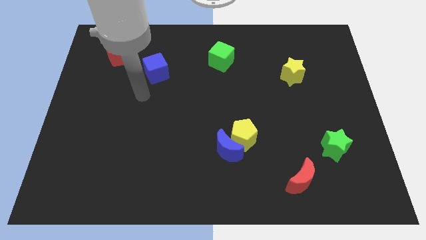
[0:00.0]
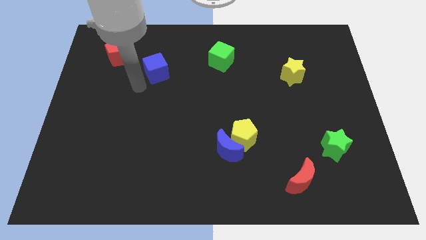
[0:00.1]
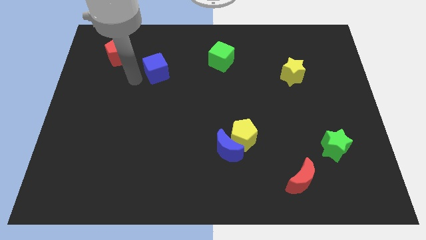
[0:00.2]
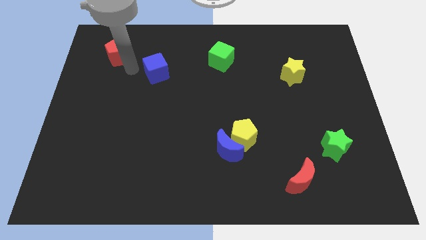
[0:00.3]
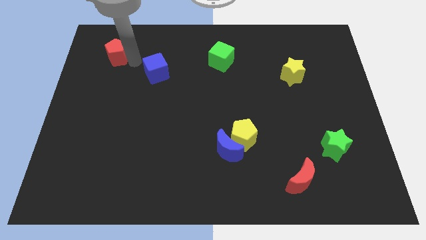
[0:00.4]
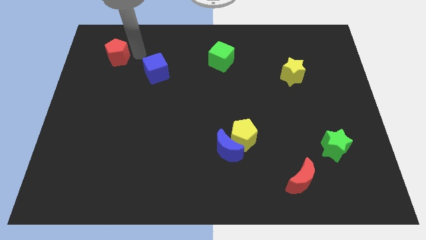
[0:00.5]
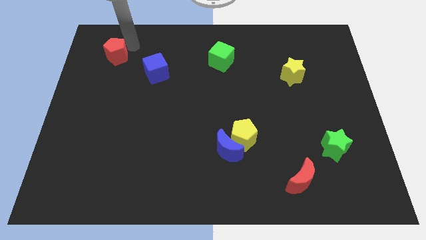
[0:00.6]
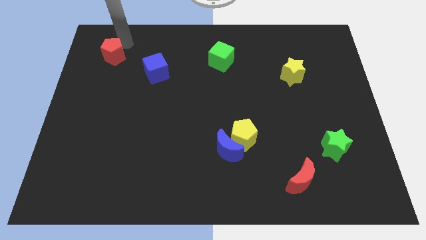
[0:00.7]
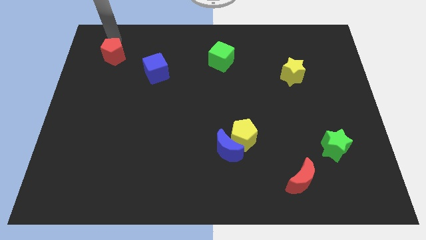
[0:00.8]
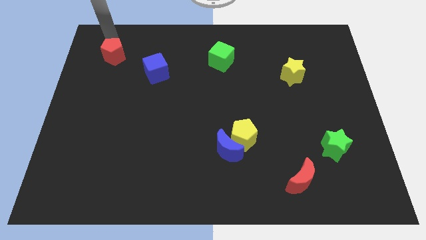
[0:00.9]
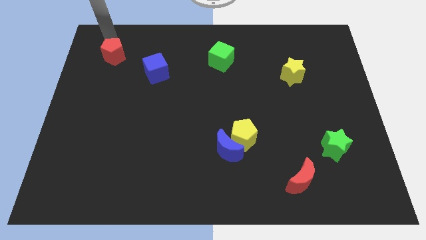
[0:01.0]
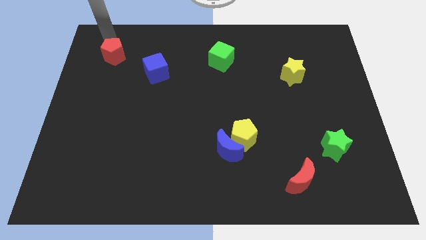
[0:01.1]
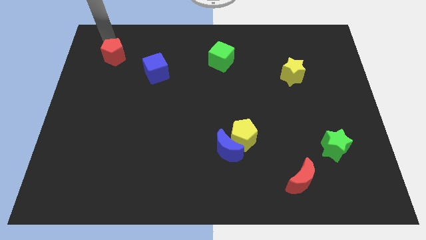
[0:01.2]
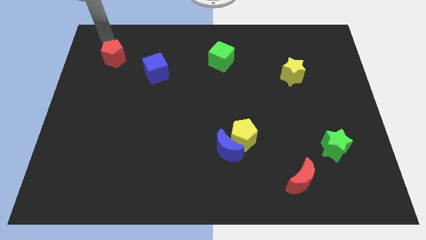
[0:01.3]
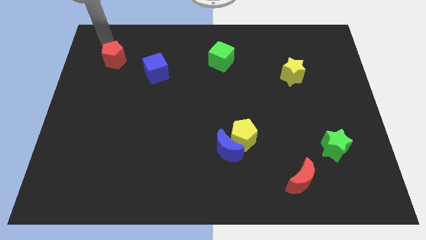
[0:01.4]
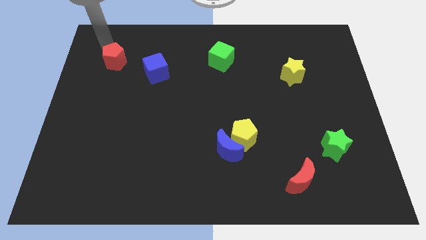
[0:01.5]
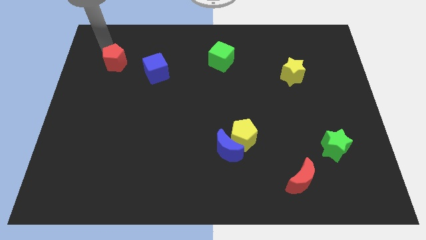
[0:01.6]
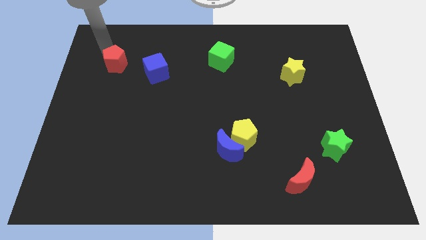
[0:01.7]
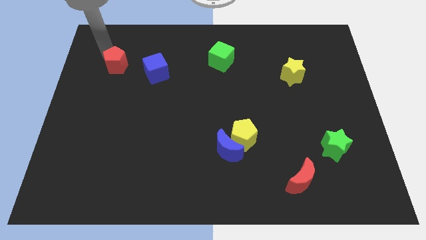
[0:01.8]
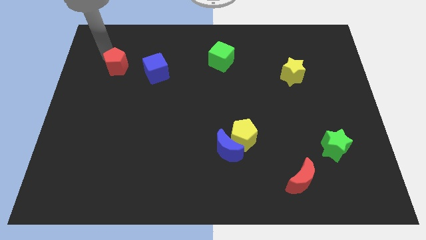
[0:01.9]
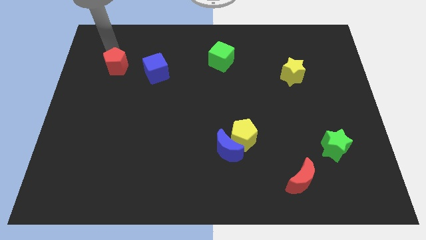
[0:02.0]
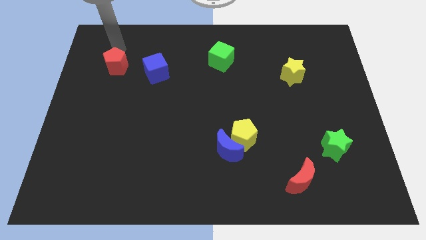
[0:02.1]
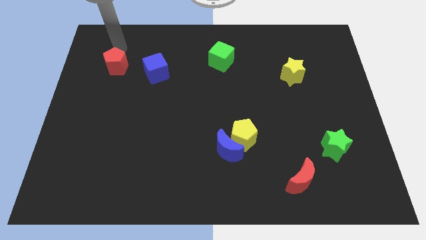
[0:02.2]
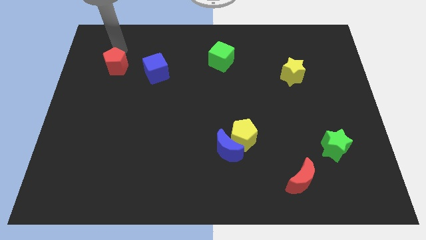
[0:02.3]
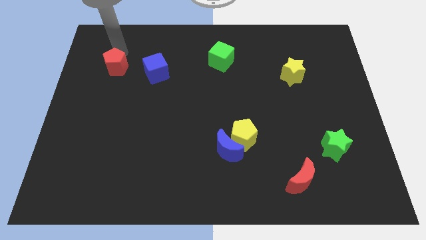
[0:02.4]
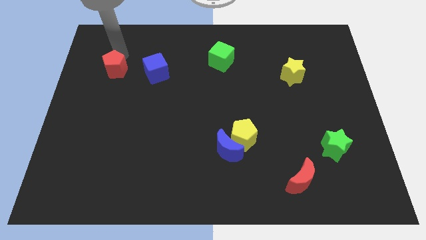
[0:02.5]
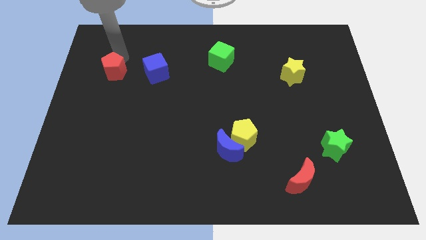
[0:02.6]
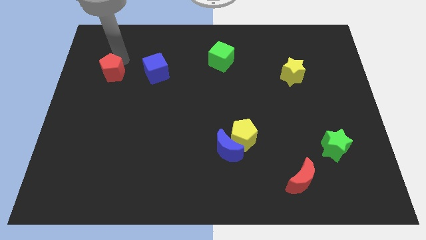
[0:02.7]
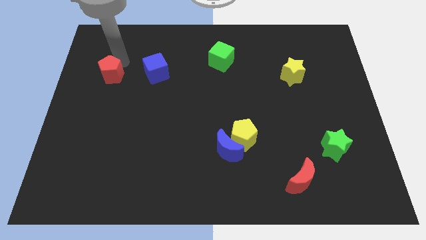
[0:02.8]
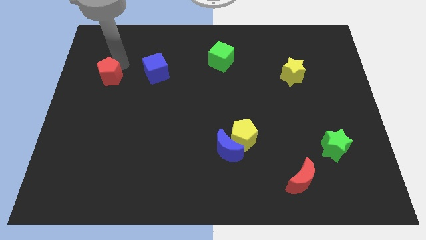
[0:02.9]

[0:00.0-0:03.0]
push the red pentagon a little downwards

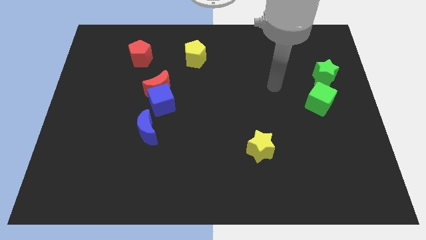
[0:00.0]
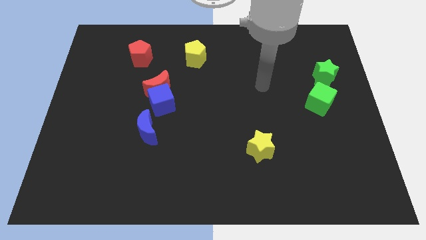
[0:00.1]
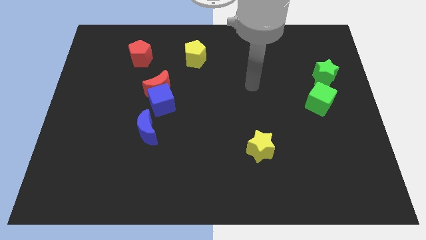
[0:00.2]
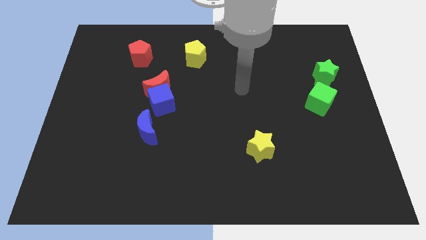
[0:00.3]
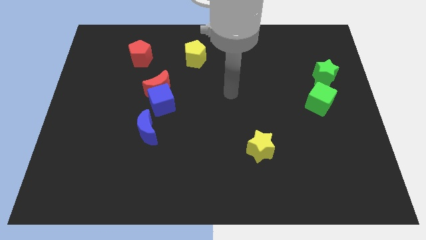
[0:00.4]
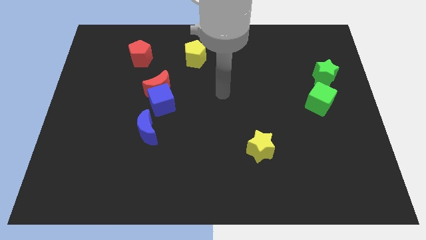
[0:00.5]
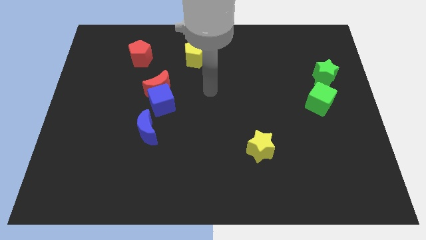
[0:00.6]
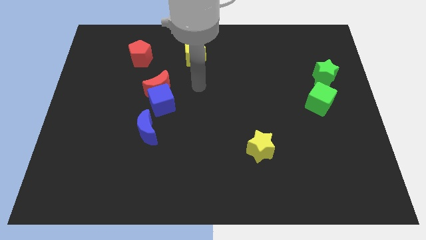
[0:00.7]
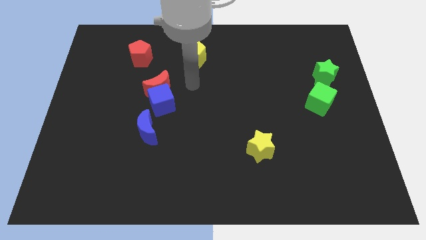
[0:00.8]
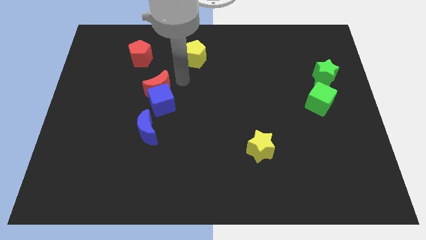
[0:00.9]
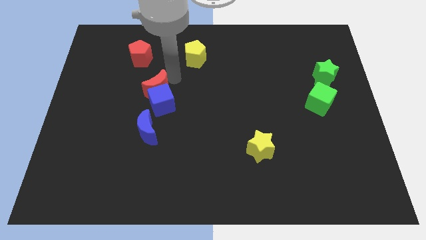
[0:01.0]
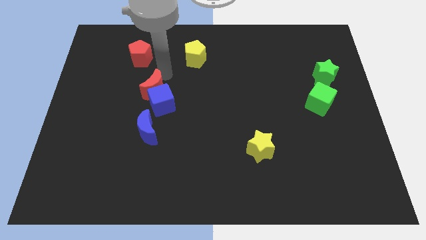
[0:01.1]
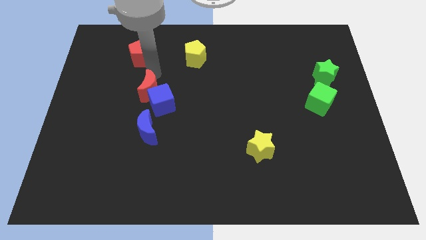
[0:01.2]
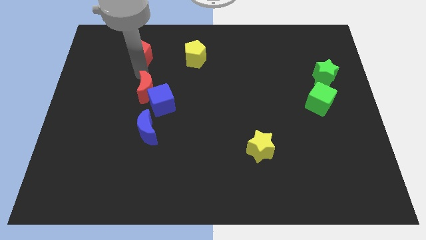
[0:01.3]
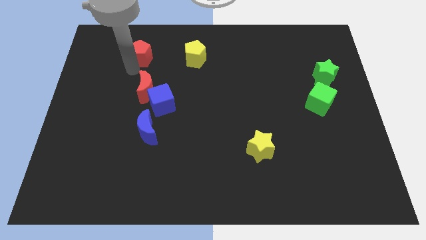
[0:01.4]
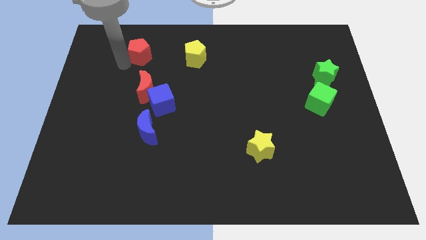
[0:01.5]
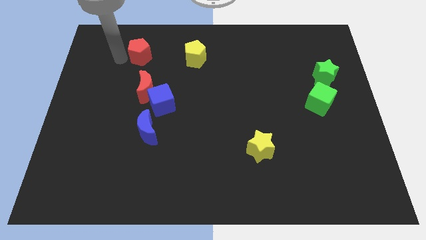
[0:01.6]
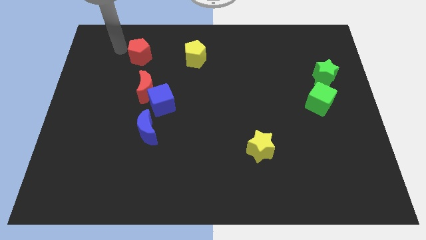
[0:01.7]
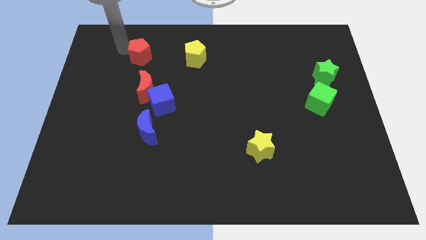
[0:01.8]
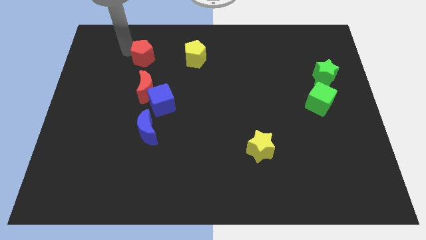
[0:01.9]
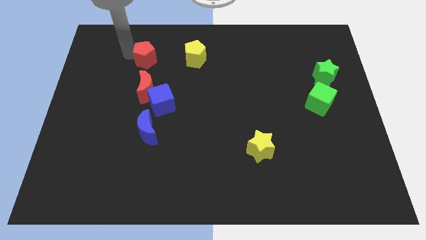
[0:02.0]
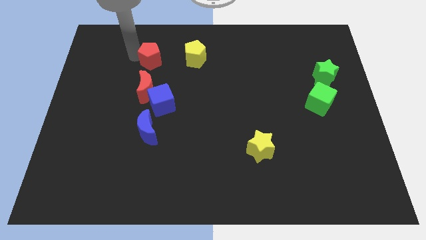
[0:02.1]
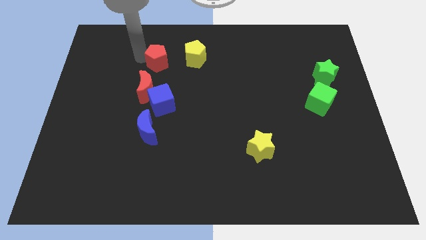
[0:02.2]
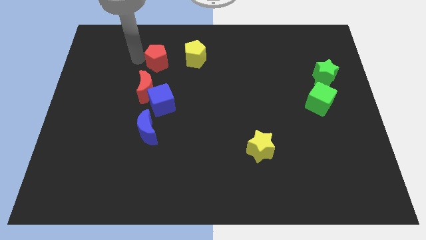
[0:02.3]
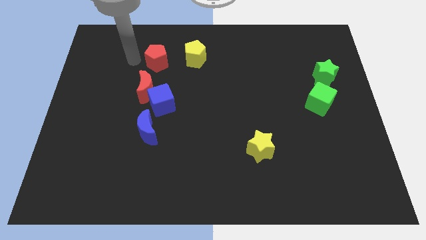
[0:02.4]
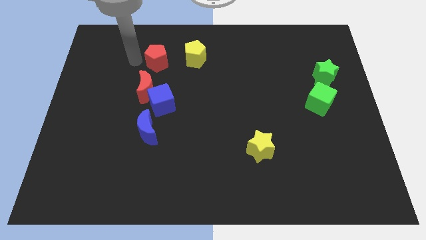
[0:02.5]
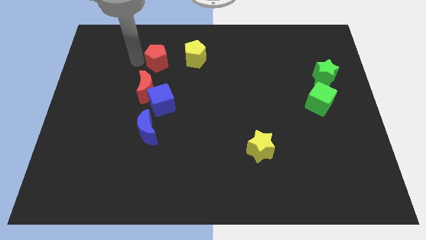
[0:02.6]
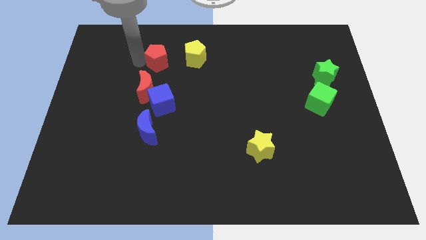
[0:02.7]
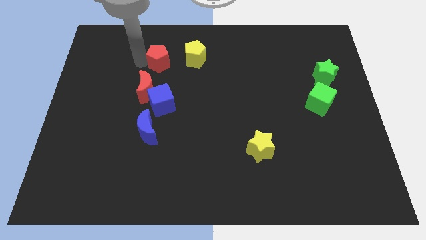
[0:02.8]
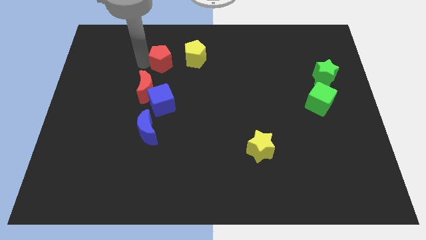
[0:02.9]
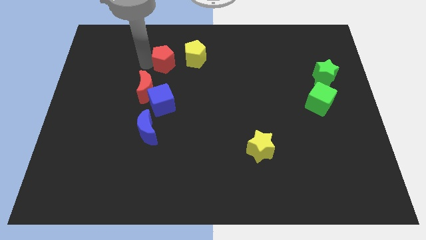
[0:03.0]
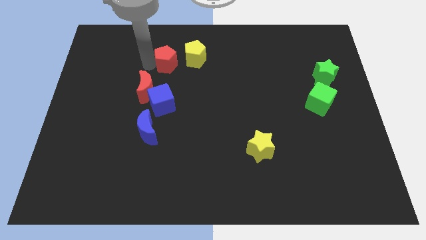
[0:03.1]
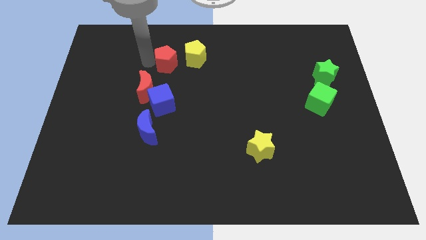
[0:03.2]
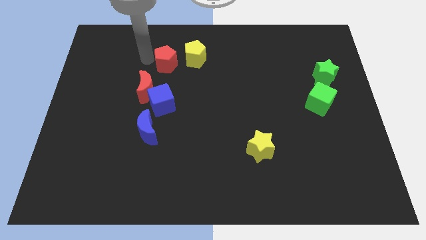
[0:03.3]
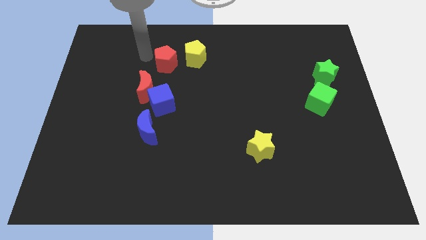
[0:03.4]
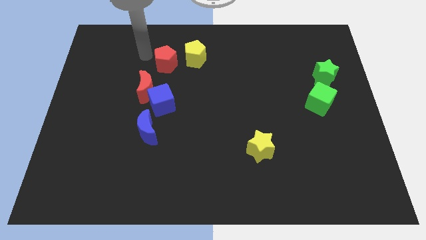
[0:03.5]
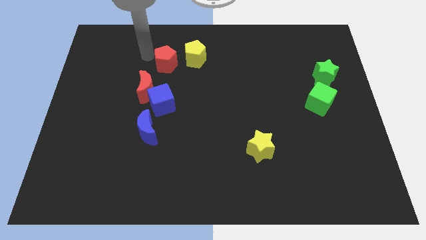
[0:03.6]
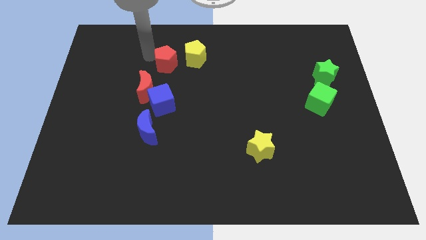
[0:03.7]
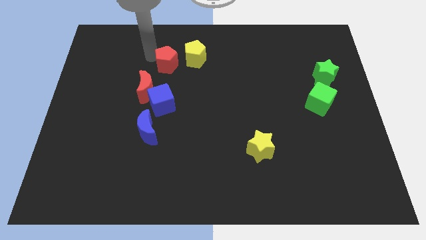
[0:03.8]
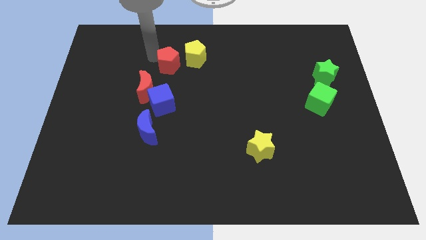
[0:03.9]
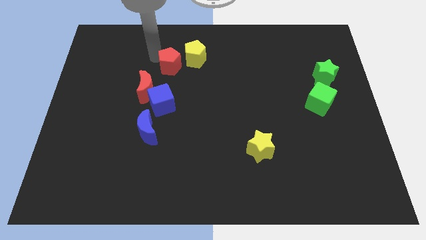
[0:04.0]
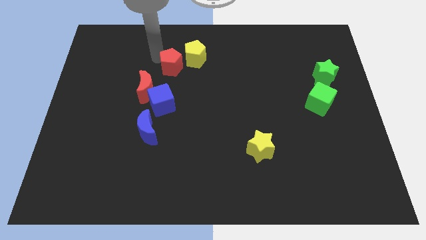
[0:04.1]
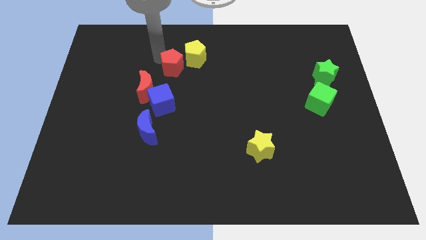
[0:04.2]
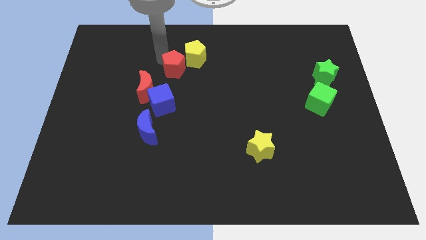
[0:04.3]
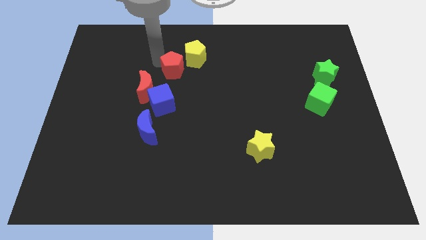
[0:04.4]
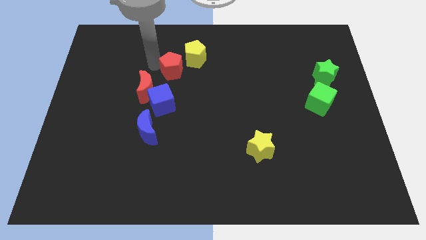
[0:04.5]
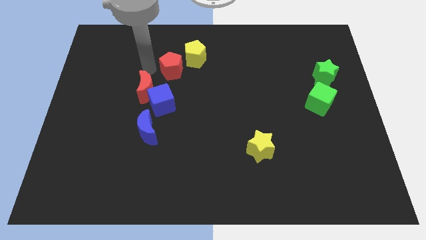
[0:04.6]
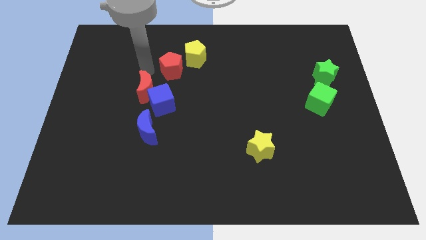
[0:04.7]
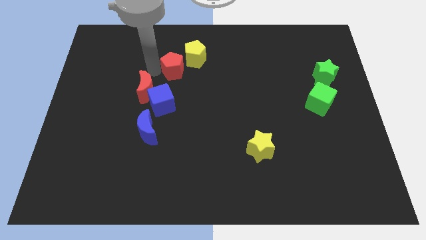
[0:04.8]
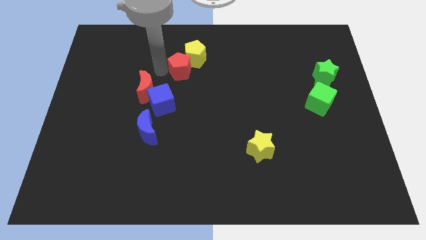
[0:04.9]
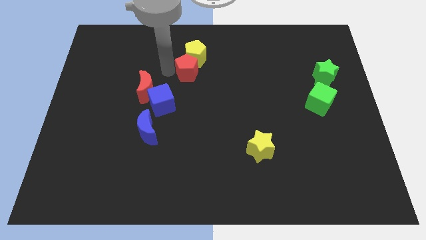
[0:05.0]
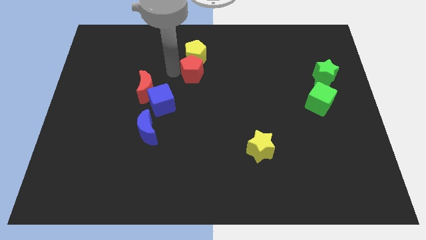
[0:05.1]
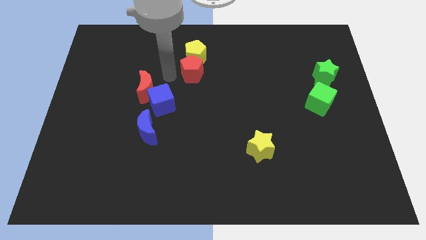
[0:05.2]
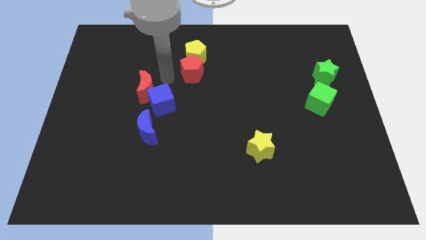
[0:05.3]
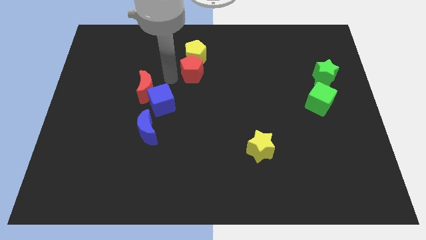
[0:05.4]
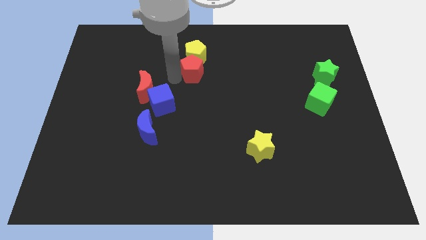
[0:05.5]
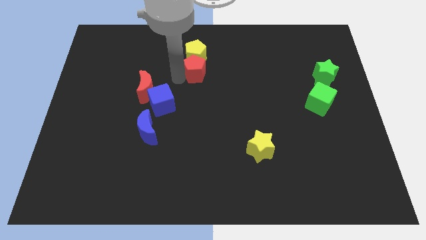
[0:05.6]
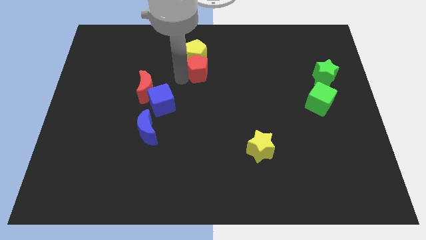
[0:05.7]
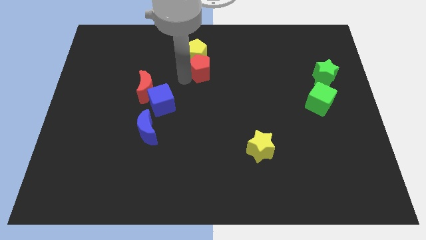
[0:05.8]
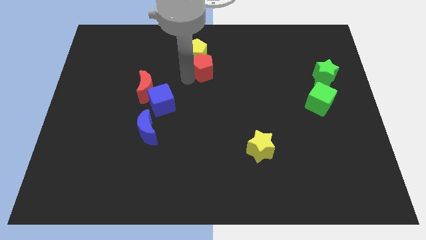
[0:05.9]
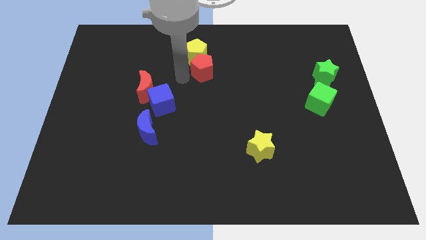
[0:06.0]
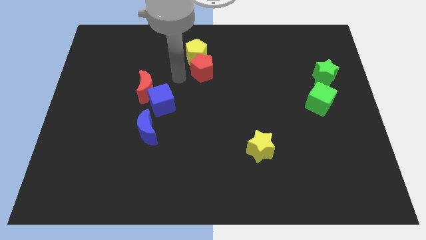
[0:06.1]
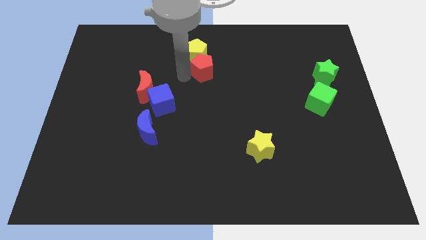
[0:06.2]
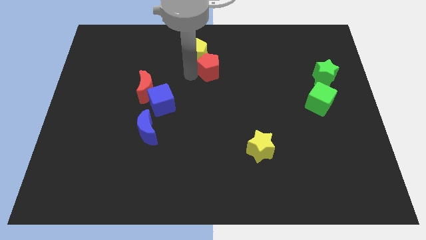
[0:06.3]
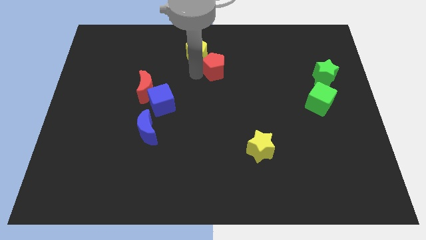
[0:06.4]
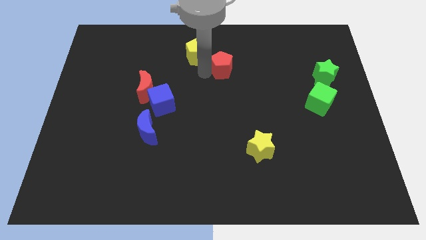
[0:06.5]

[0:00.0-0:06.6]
slide the red pentagon to the right
